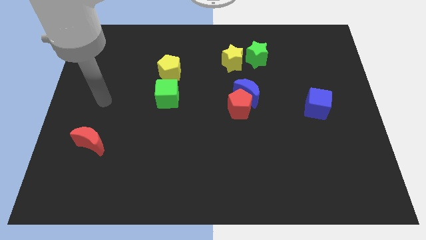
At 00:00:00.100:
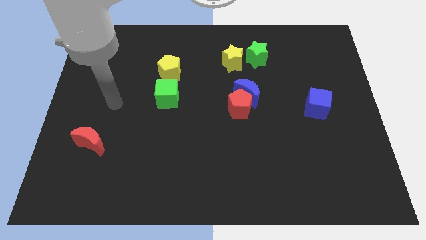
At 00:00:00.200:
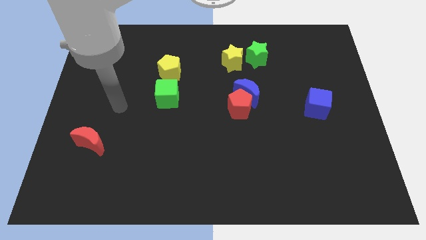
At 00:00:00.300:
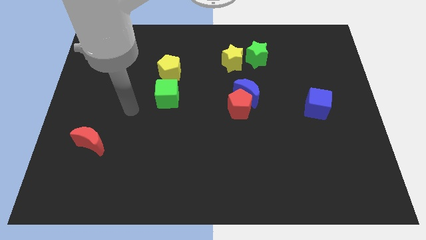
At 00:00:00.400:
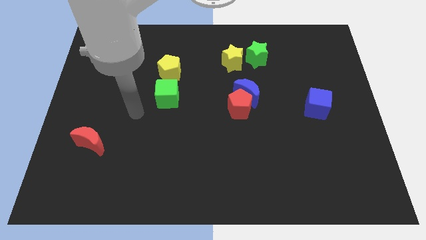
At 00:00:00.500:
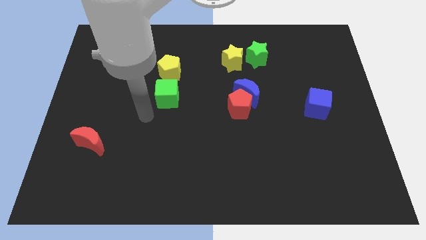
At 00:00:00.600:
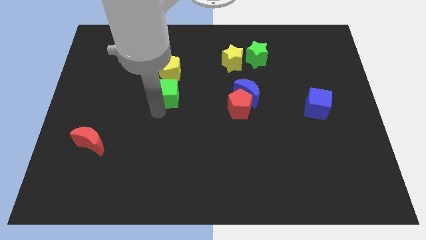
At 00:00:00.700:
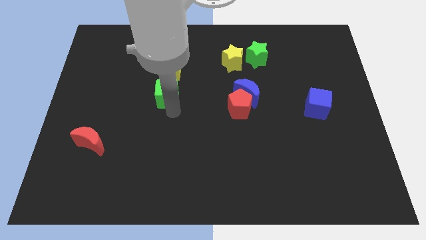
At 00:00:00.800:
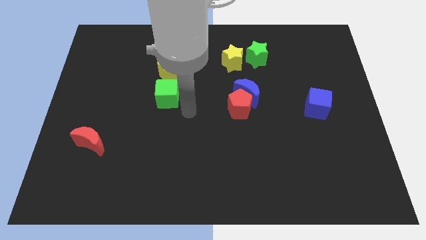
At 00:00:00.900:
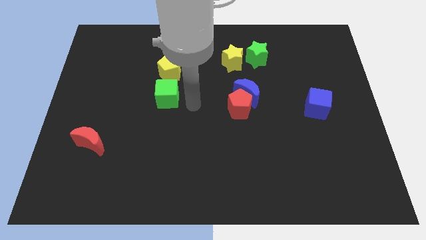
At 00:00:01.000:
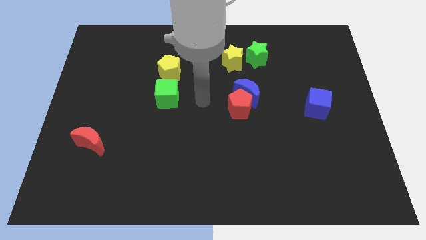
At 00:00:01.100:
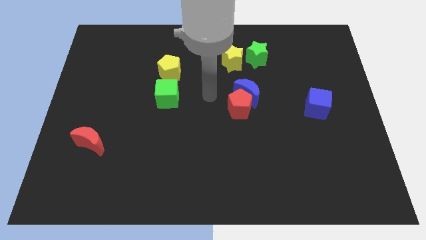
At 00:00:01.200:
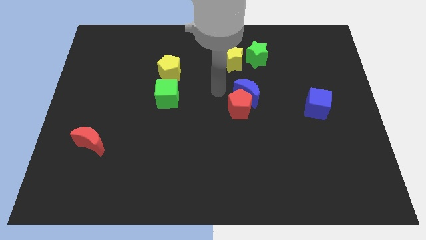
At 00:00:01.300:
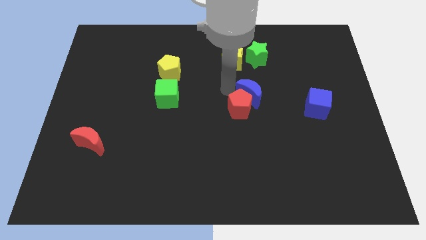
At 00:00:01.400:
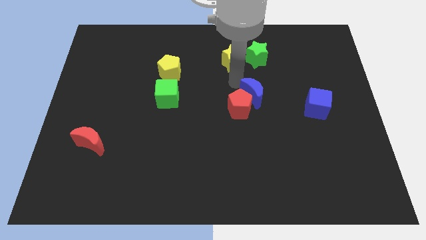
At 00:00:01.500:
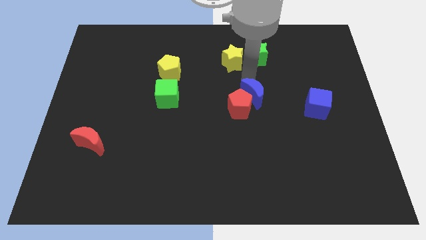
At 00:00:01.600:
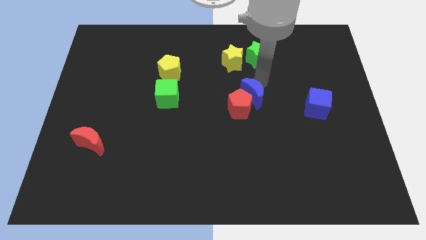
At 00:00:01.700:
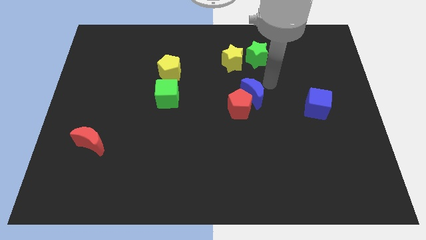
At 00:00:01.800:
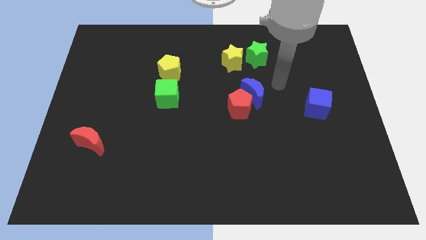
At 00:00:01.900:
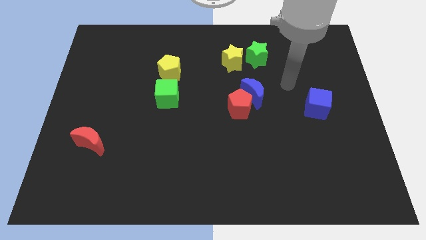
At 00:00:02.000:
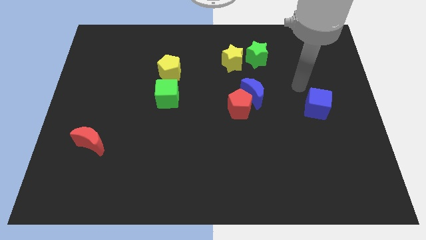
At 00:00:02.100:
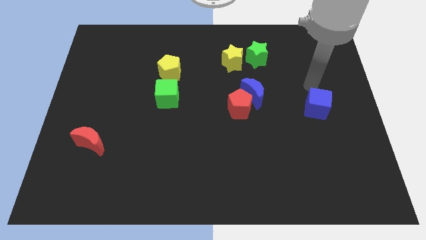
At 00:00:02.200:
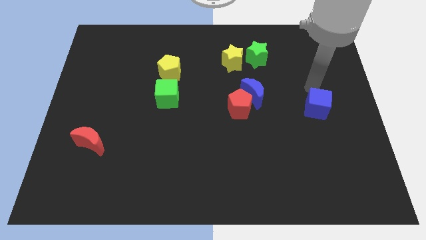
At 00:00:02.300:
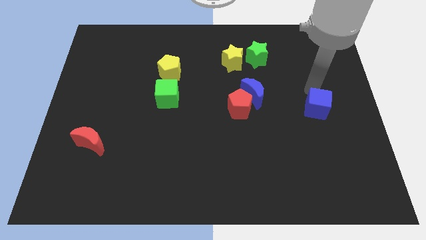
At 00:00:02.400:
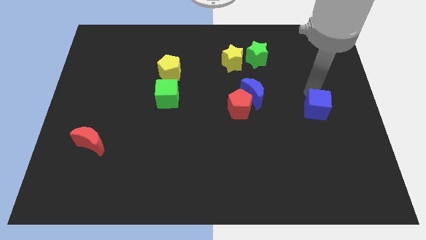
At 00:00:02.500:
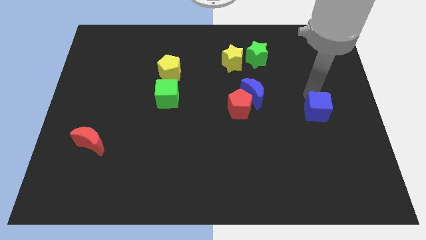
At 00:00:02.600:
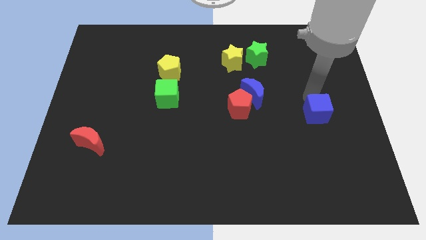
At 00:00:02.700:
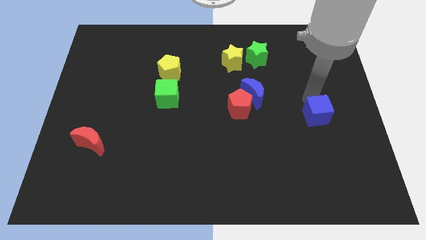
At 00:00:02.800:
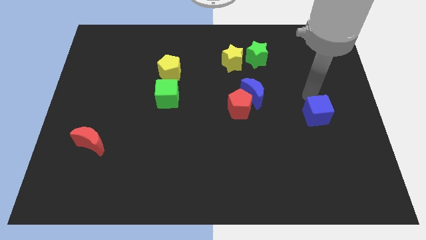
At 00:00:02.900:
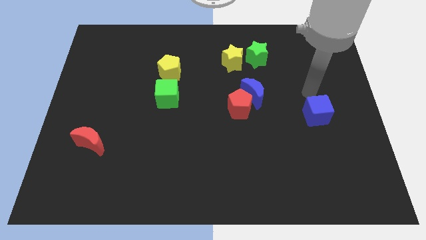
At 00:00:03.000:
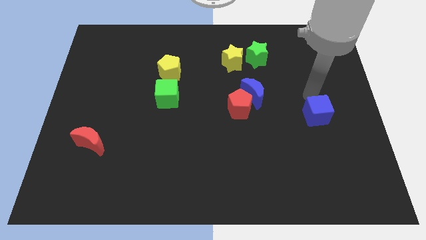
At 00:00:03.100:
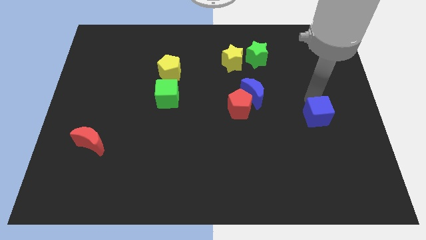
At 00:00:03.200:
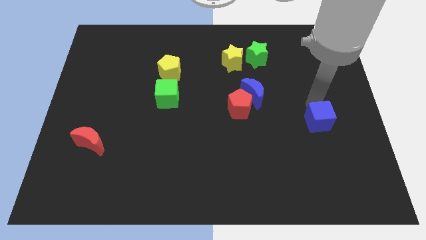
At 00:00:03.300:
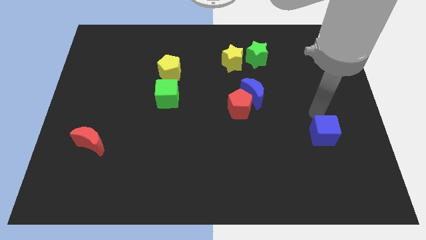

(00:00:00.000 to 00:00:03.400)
move the blue cube a bit downwards

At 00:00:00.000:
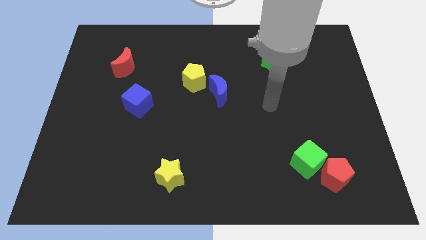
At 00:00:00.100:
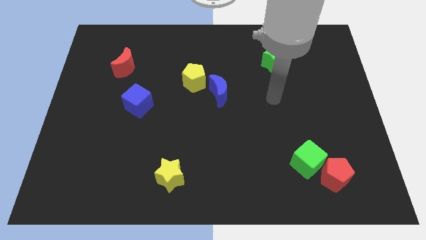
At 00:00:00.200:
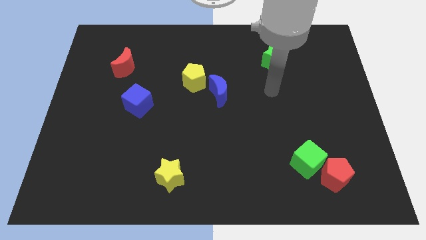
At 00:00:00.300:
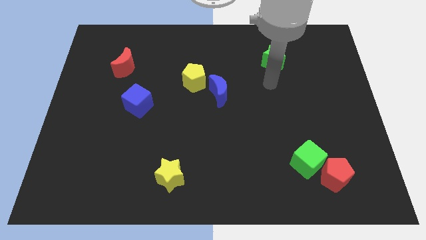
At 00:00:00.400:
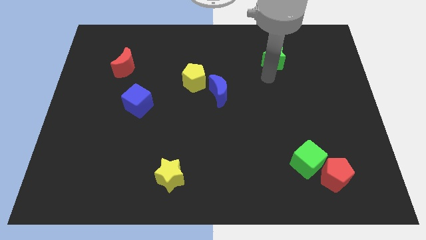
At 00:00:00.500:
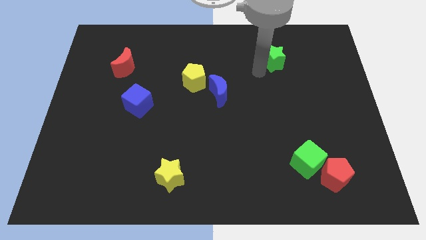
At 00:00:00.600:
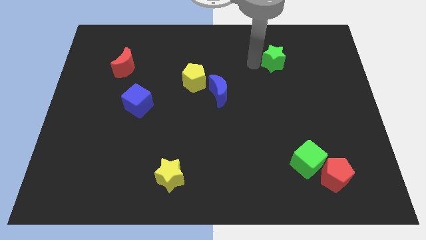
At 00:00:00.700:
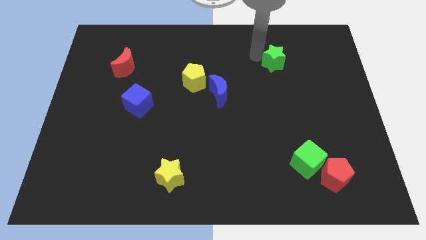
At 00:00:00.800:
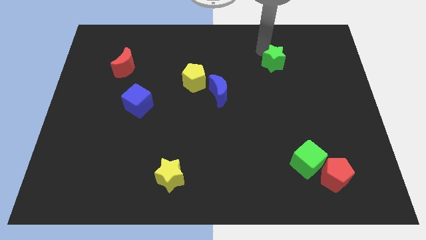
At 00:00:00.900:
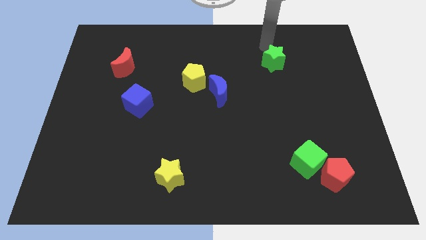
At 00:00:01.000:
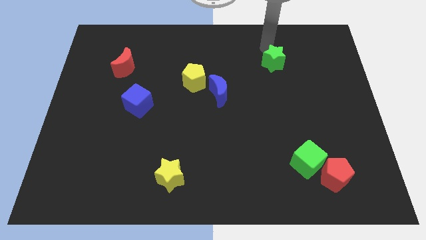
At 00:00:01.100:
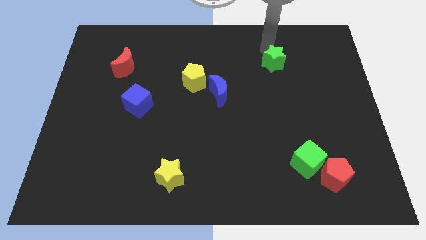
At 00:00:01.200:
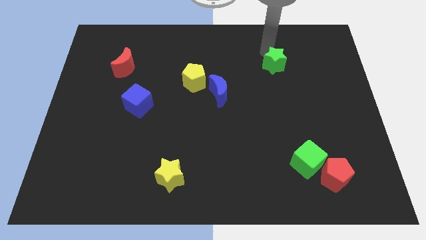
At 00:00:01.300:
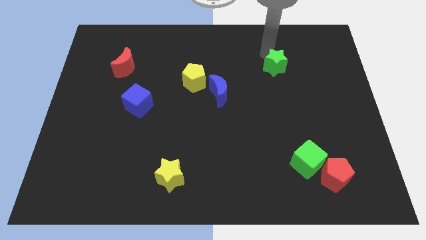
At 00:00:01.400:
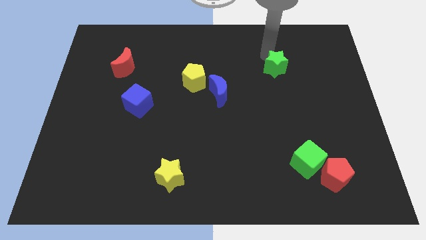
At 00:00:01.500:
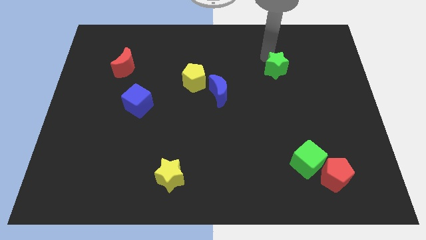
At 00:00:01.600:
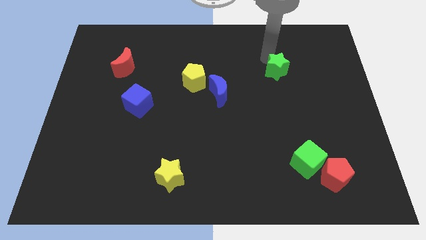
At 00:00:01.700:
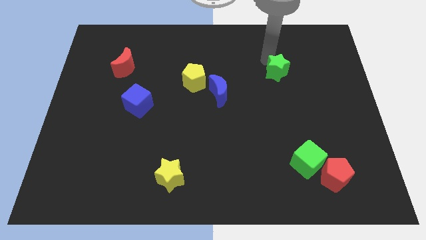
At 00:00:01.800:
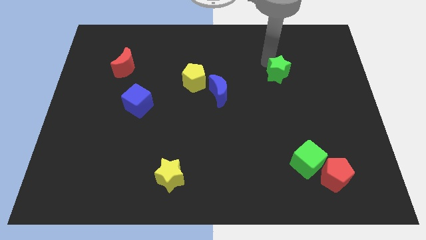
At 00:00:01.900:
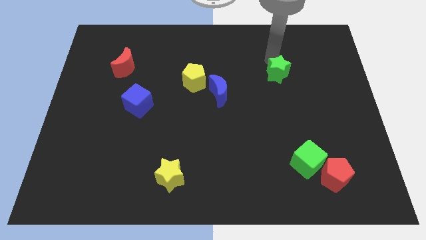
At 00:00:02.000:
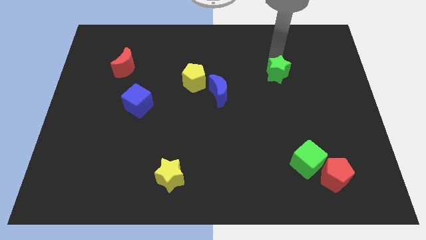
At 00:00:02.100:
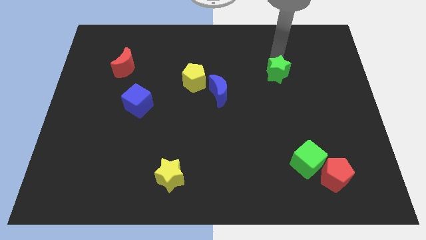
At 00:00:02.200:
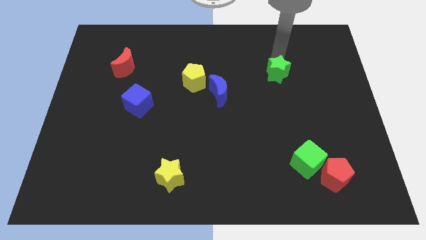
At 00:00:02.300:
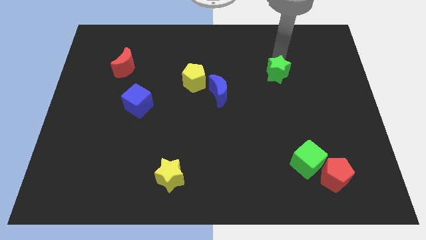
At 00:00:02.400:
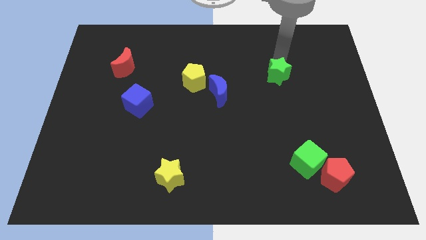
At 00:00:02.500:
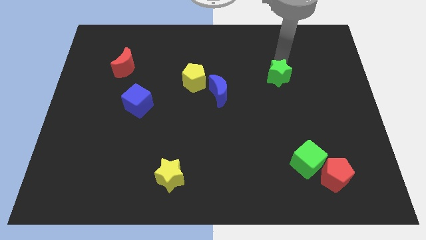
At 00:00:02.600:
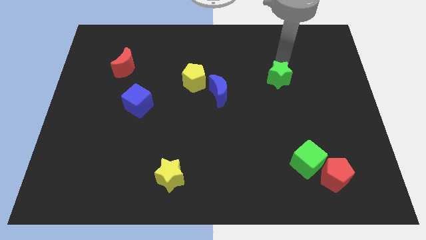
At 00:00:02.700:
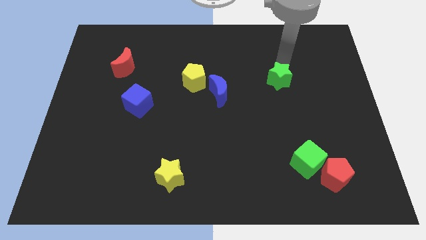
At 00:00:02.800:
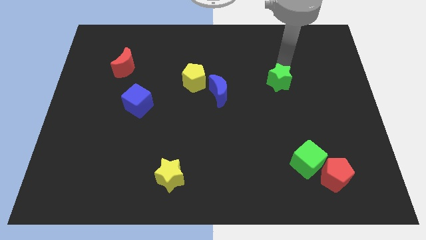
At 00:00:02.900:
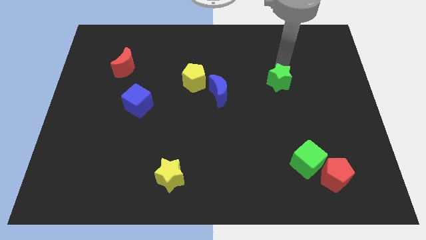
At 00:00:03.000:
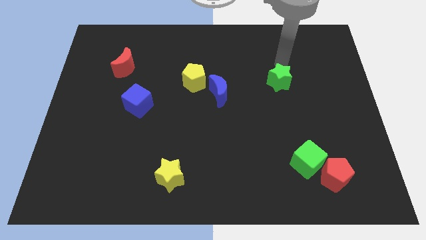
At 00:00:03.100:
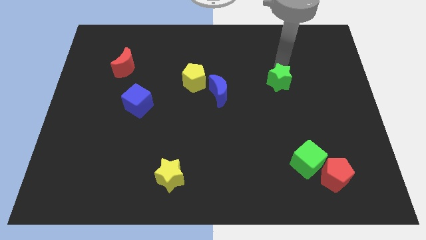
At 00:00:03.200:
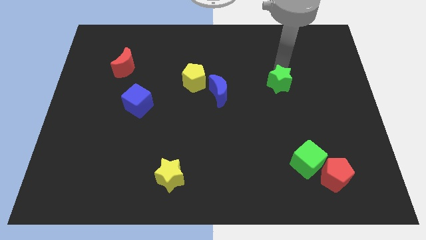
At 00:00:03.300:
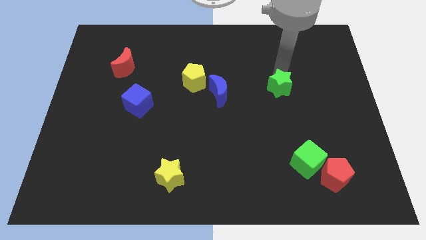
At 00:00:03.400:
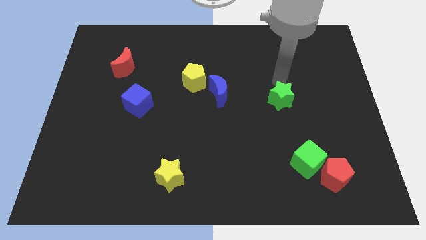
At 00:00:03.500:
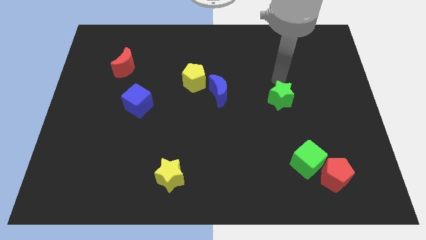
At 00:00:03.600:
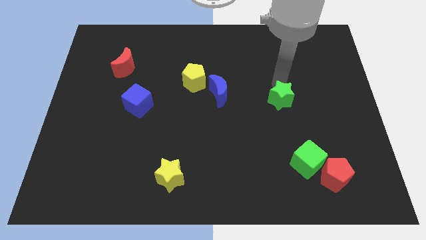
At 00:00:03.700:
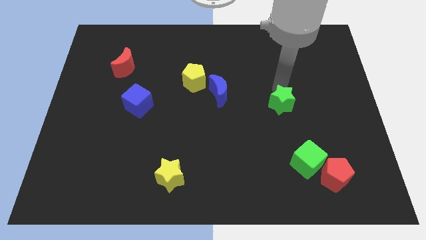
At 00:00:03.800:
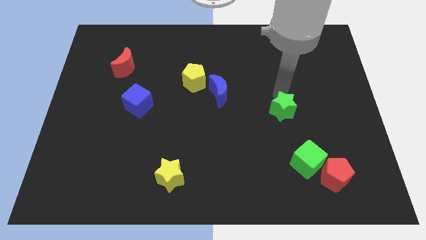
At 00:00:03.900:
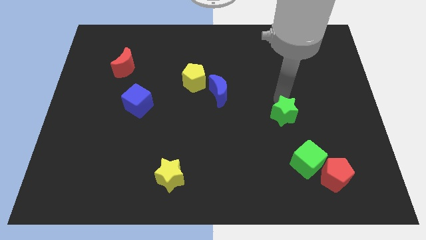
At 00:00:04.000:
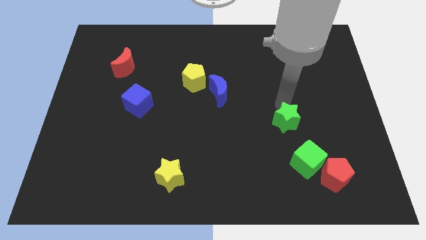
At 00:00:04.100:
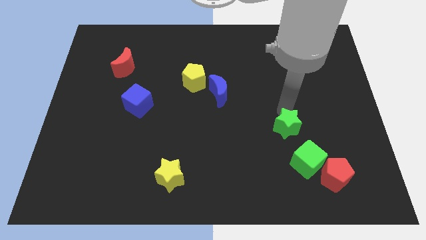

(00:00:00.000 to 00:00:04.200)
push the green star downwards

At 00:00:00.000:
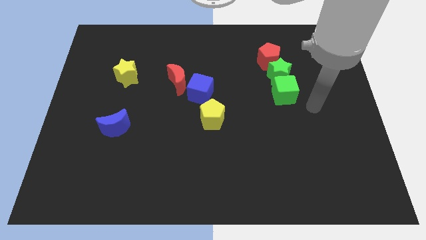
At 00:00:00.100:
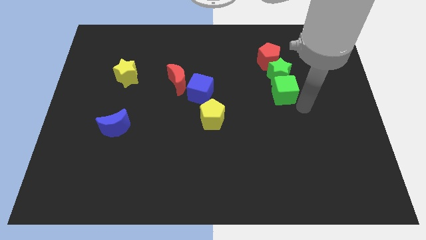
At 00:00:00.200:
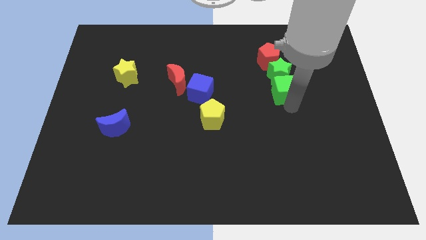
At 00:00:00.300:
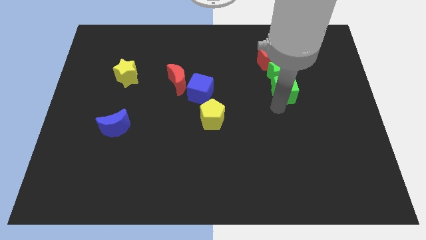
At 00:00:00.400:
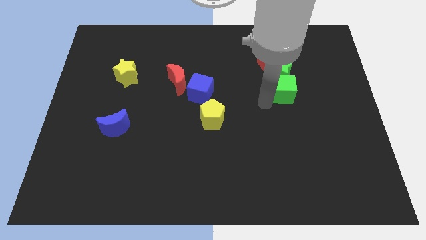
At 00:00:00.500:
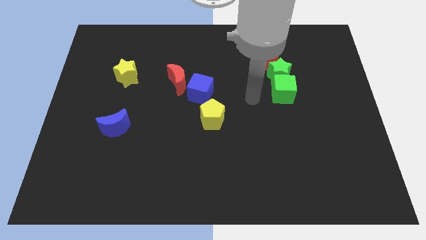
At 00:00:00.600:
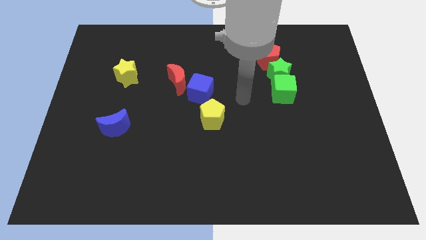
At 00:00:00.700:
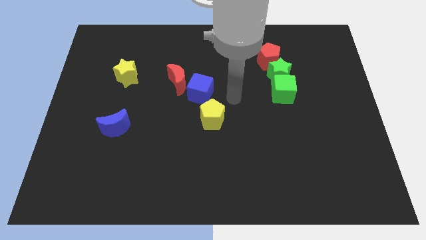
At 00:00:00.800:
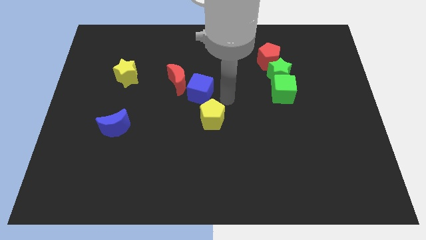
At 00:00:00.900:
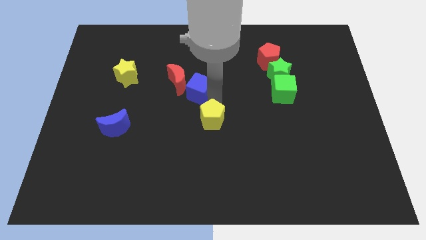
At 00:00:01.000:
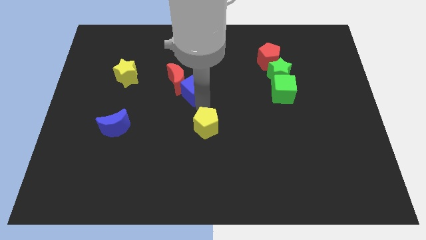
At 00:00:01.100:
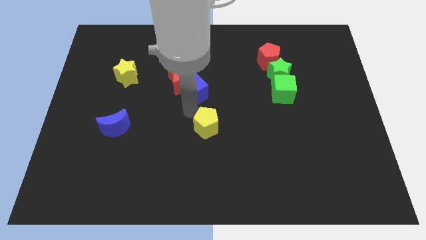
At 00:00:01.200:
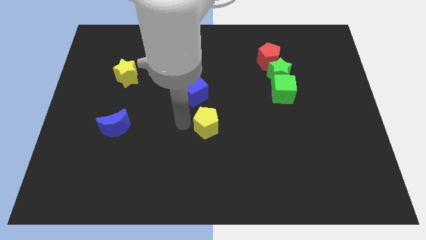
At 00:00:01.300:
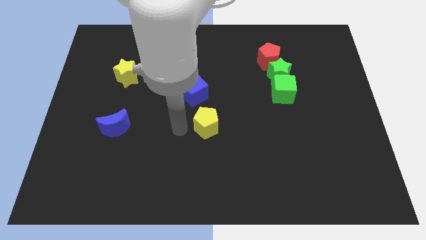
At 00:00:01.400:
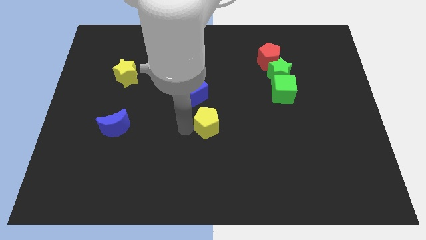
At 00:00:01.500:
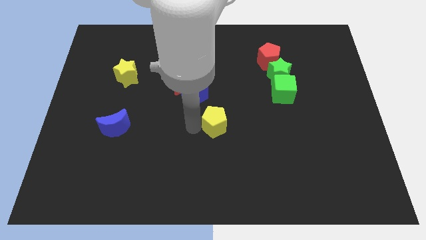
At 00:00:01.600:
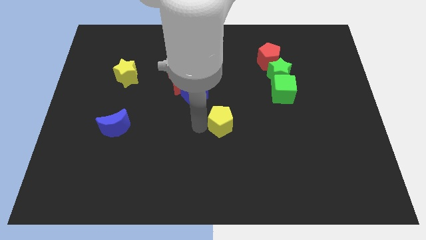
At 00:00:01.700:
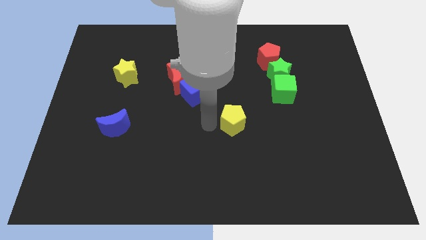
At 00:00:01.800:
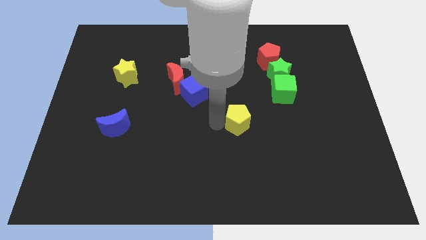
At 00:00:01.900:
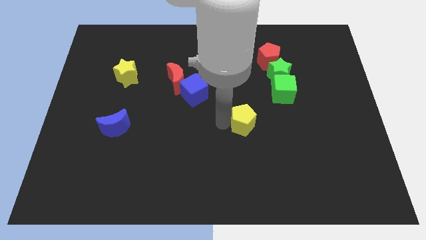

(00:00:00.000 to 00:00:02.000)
push the yellow pentagon right slightly
